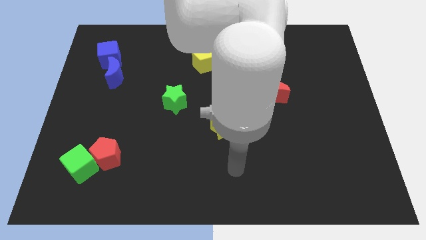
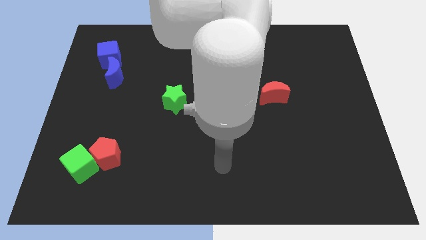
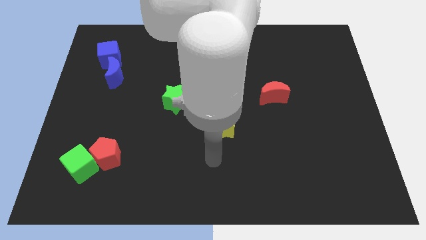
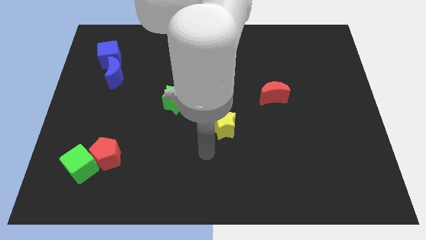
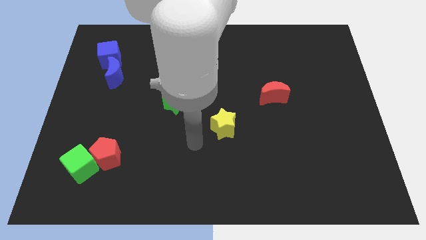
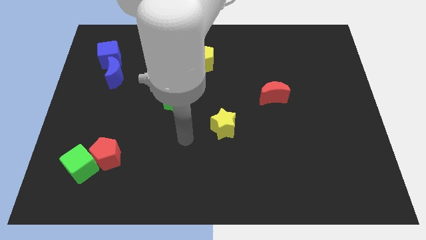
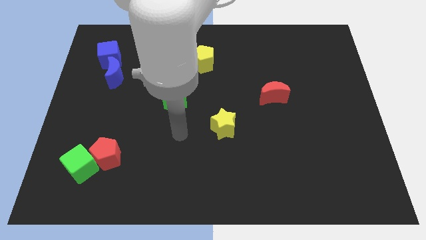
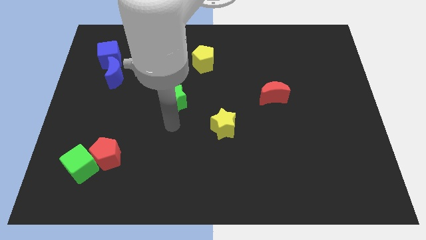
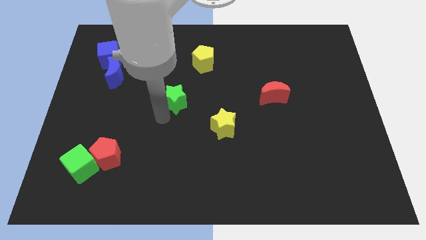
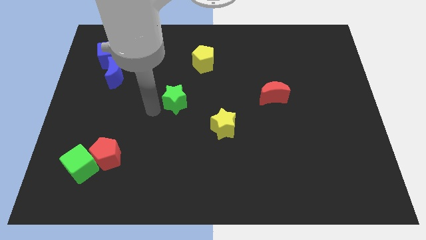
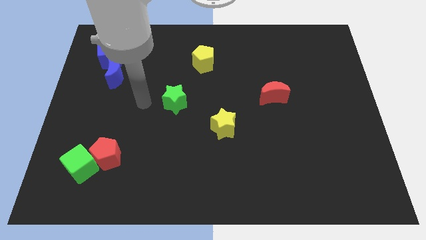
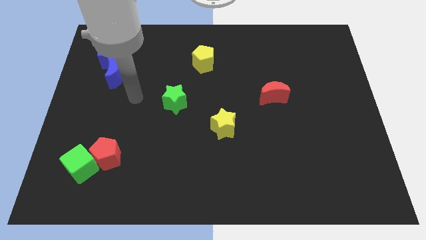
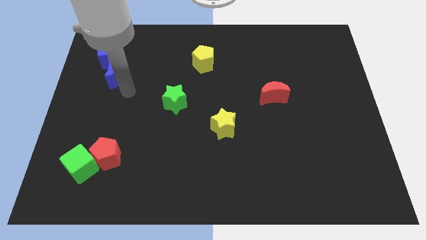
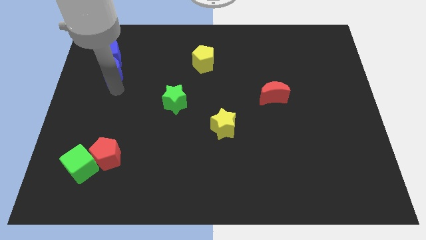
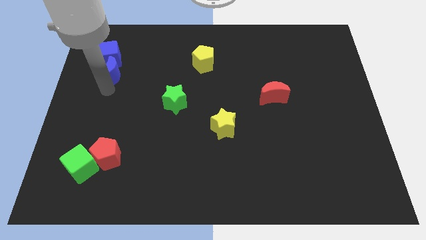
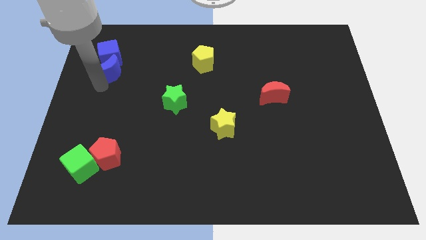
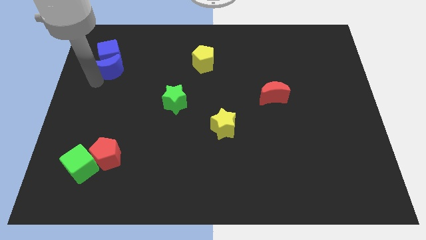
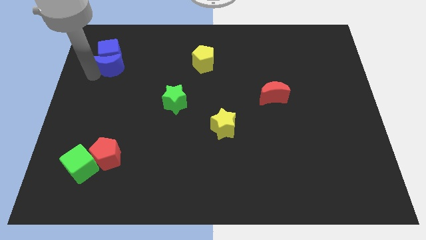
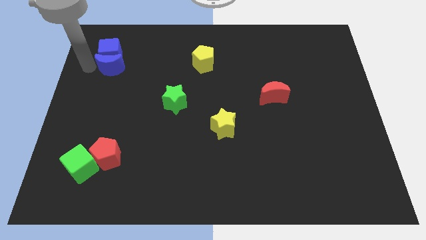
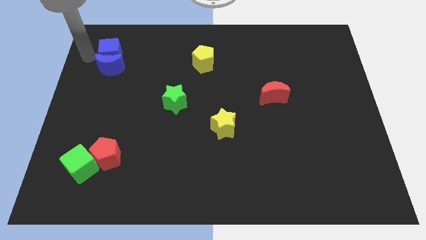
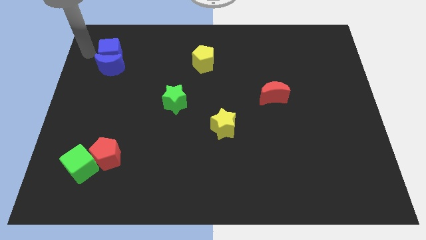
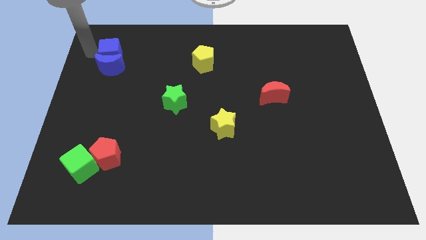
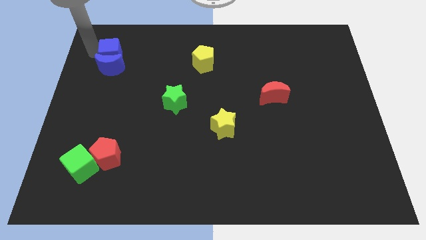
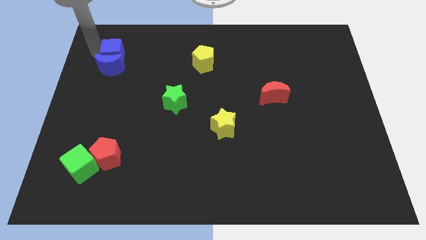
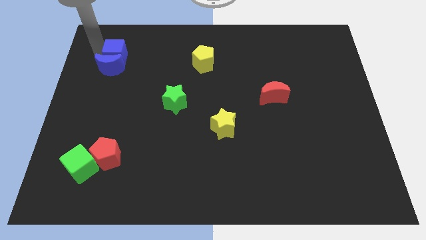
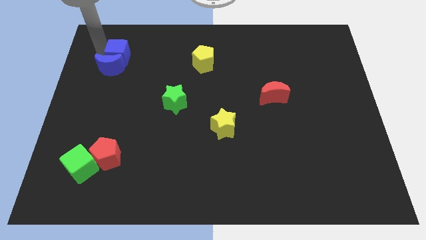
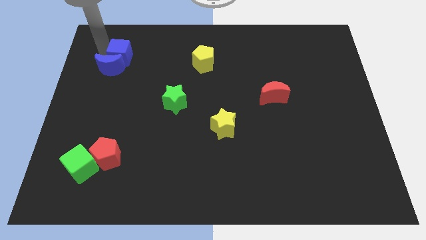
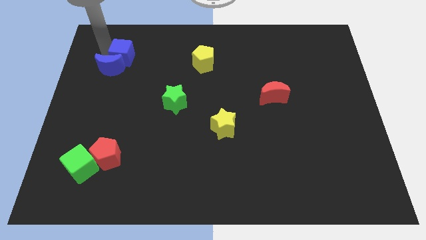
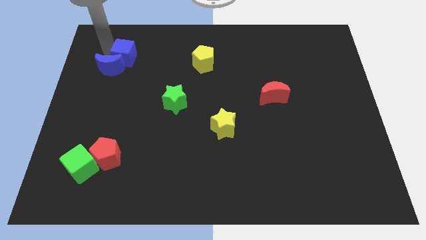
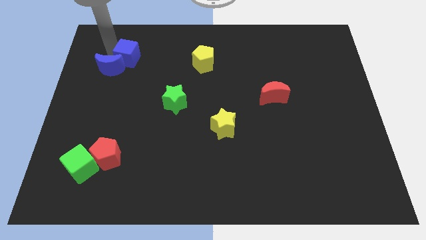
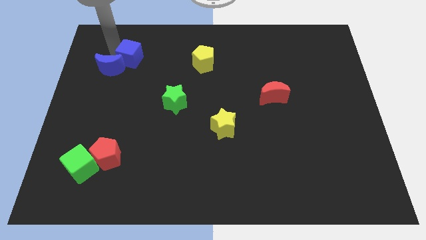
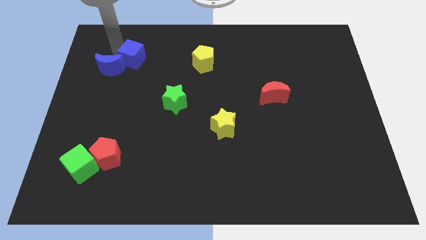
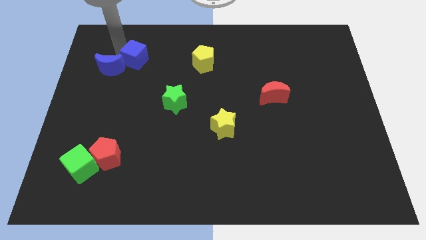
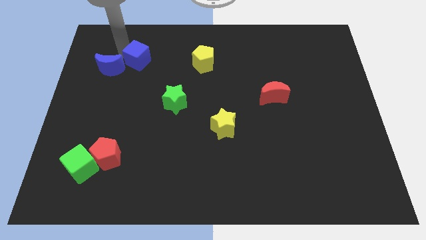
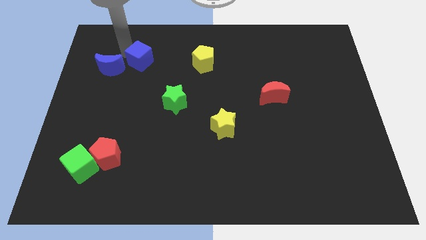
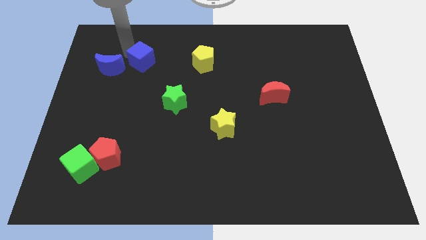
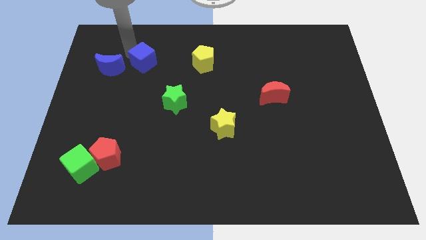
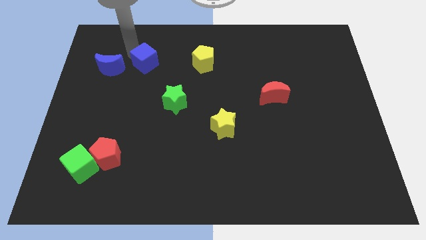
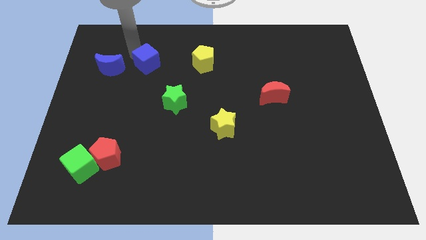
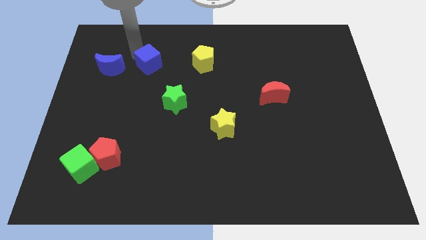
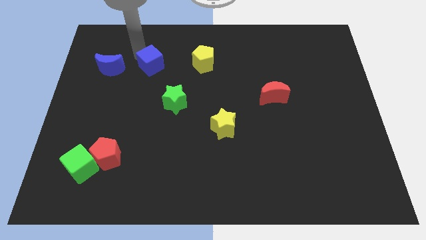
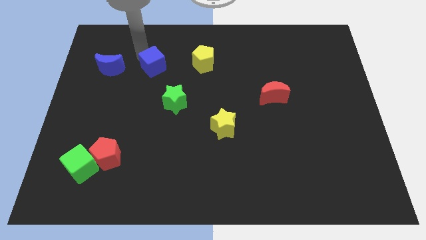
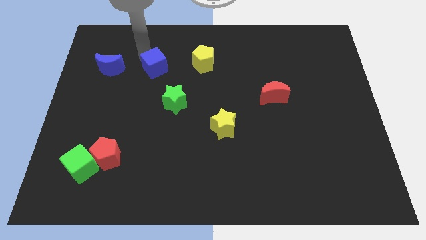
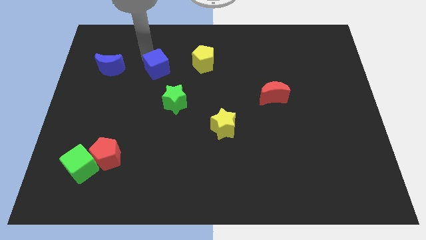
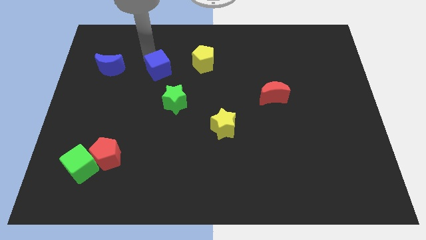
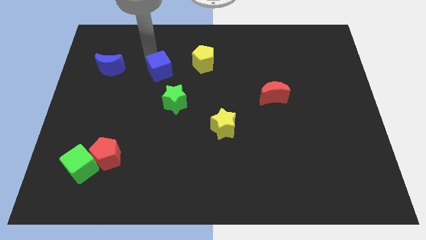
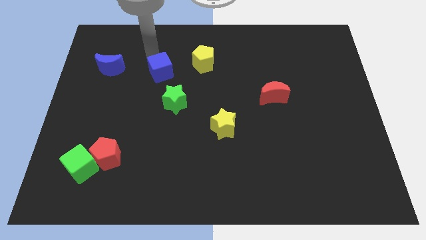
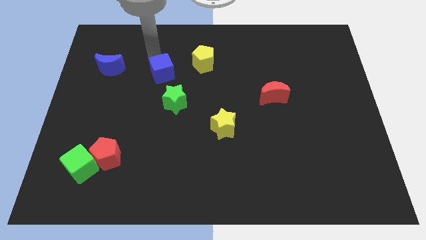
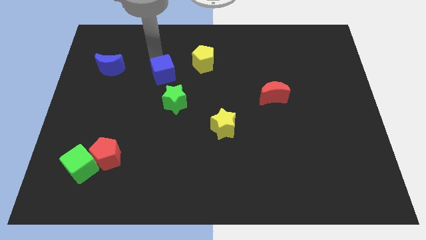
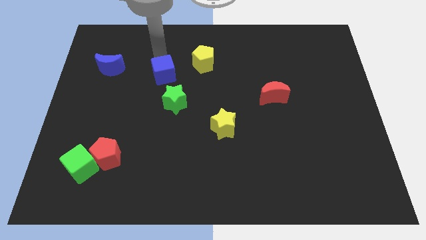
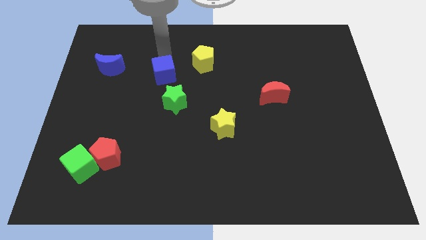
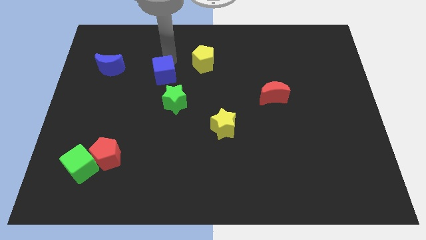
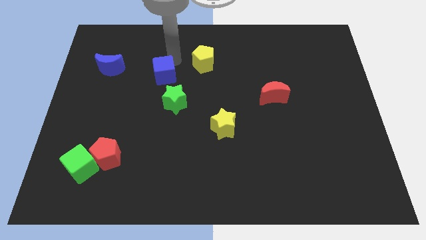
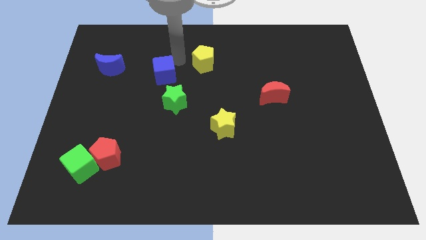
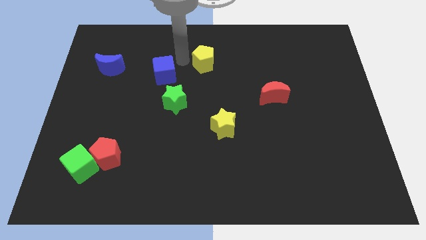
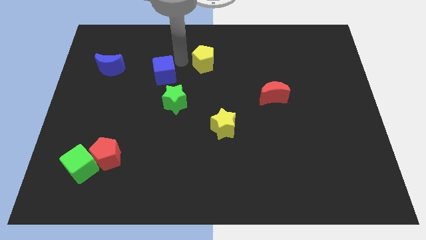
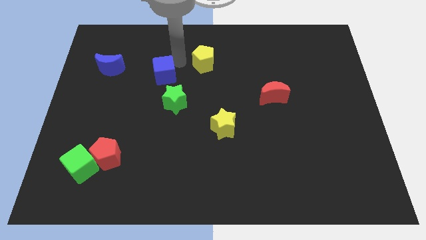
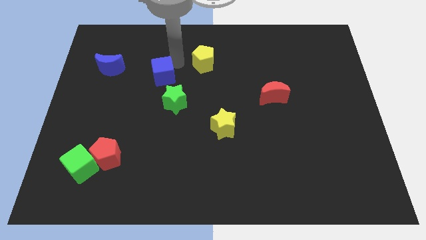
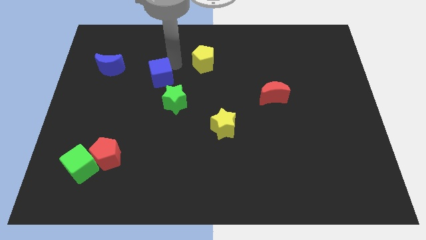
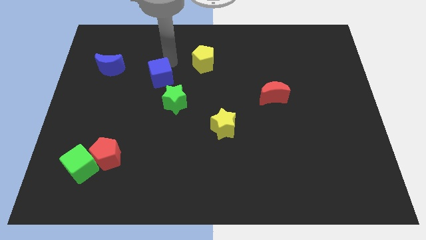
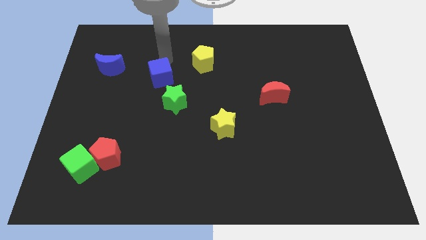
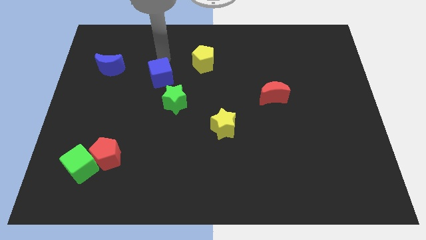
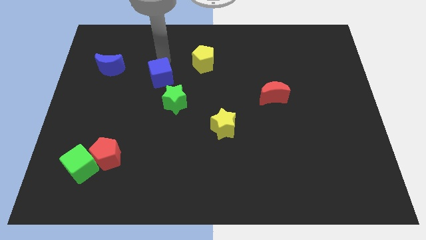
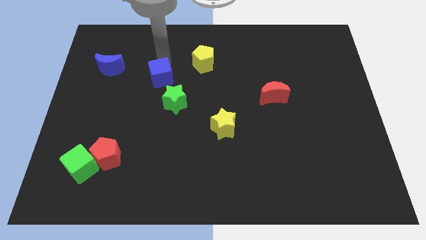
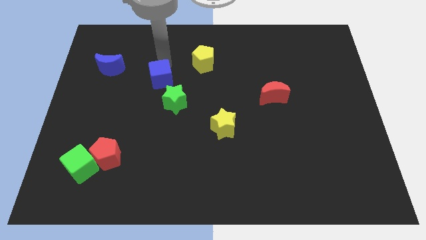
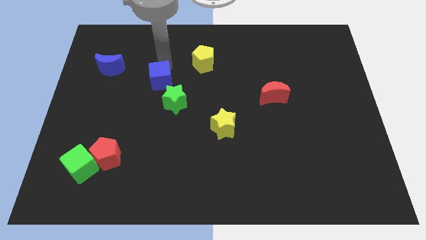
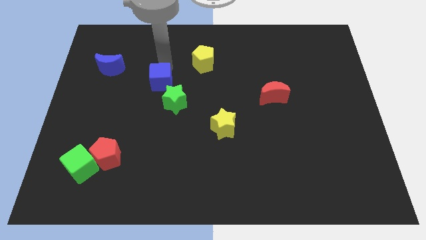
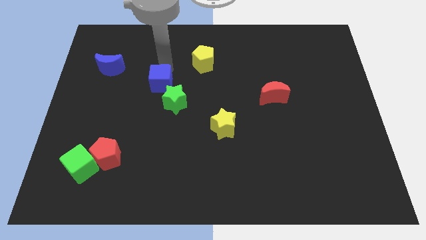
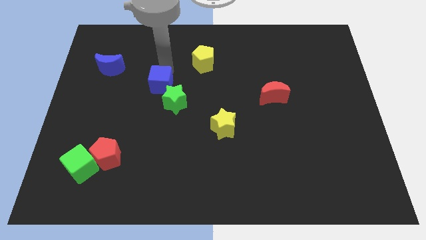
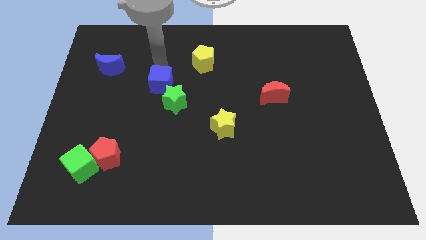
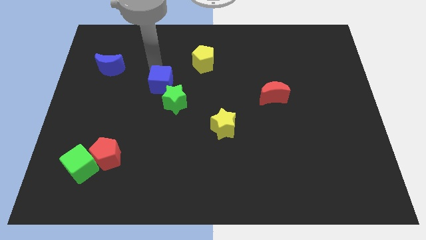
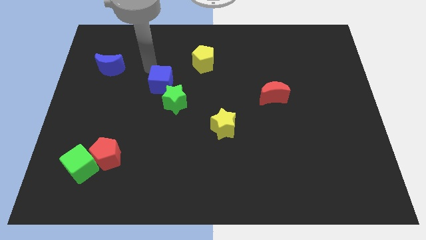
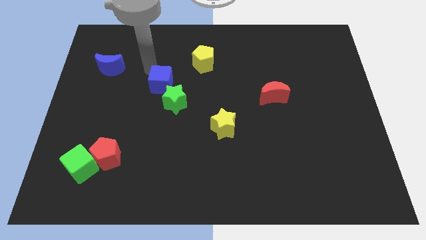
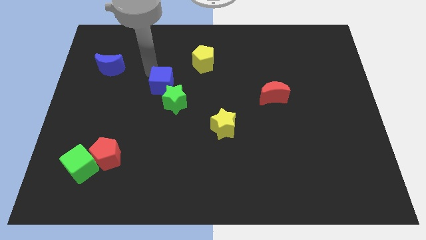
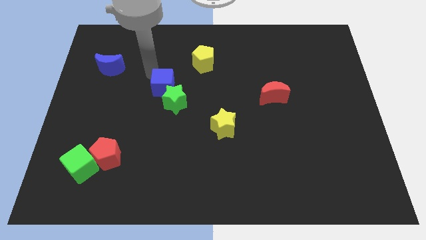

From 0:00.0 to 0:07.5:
slide the blue cube towards the green star
